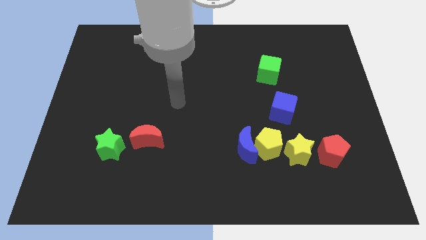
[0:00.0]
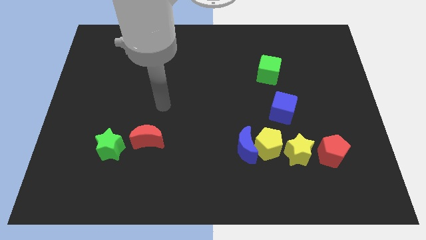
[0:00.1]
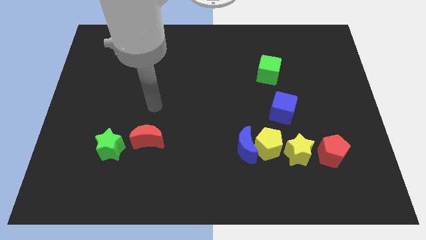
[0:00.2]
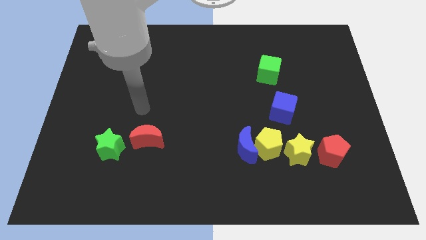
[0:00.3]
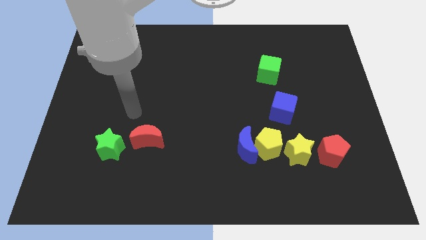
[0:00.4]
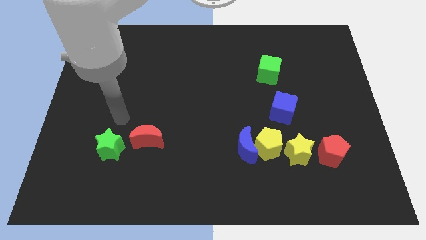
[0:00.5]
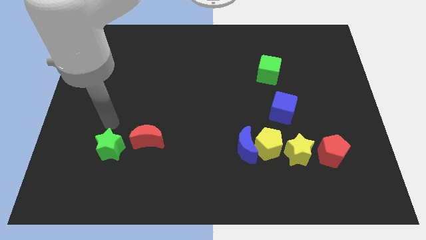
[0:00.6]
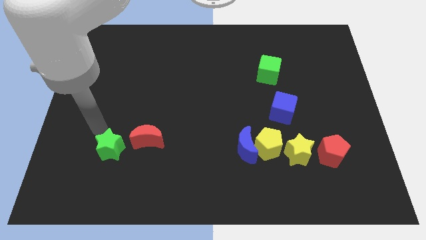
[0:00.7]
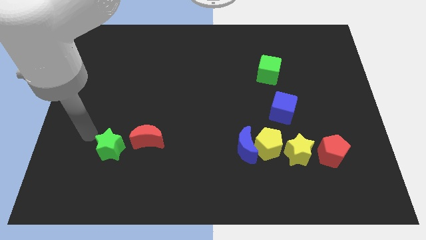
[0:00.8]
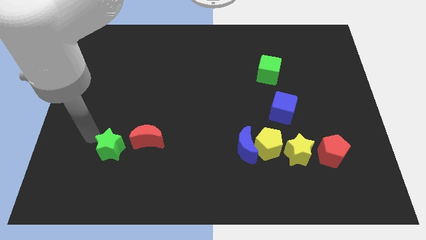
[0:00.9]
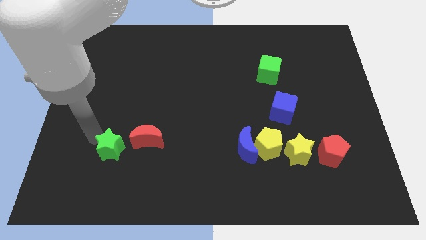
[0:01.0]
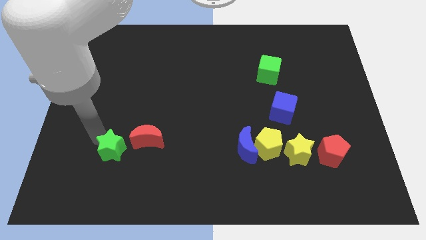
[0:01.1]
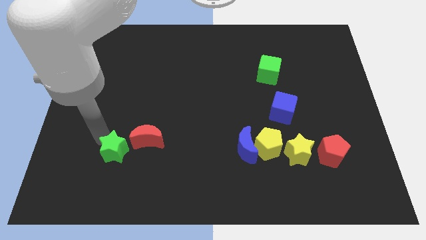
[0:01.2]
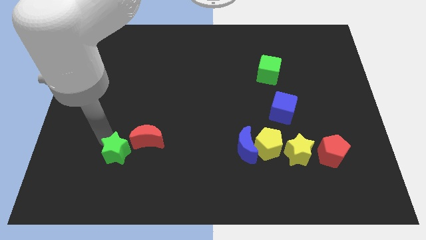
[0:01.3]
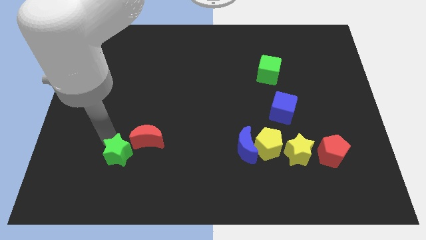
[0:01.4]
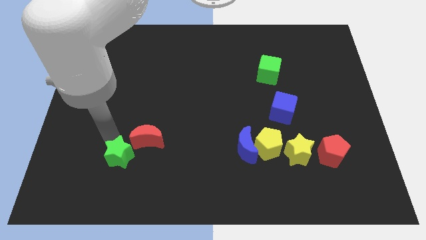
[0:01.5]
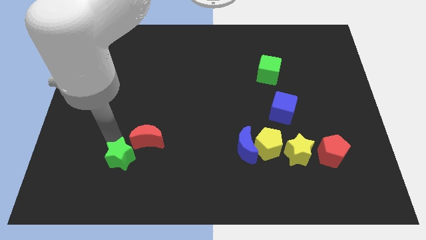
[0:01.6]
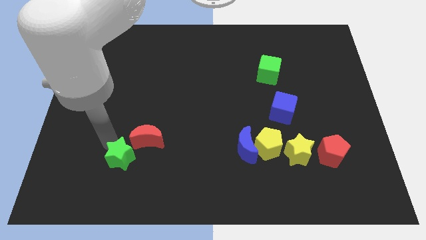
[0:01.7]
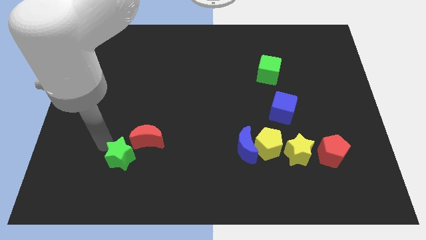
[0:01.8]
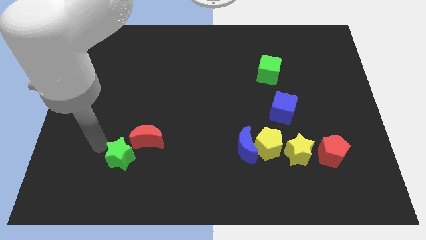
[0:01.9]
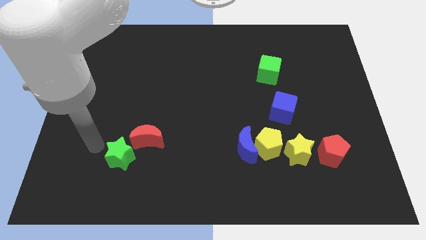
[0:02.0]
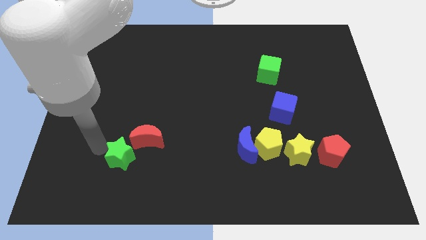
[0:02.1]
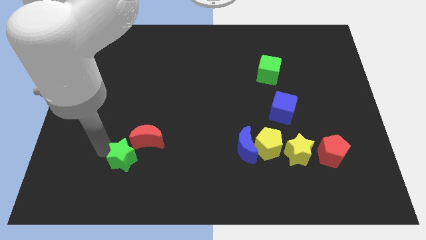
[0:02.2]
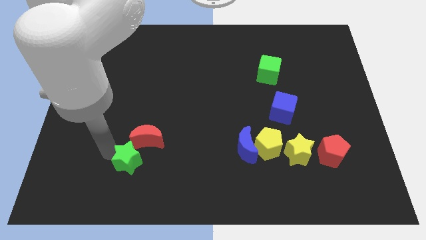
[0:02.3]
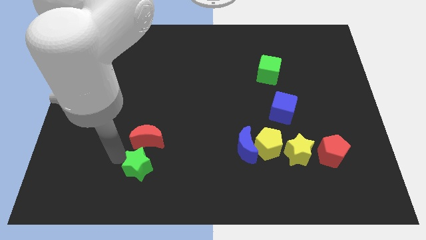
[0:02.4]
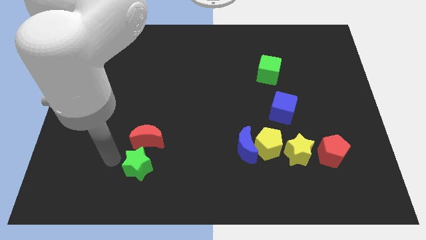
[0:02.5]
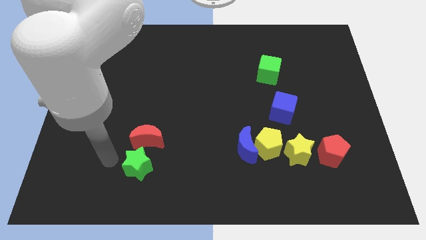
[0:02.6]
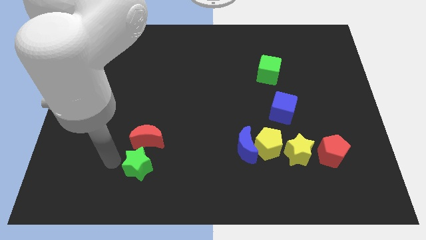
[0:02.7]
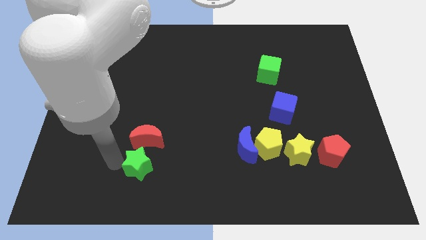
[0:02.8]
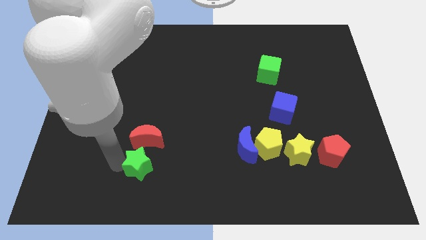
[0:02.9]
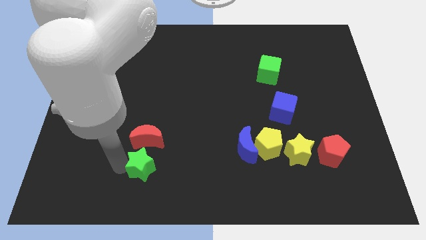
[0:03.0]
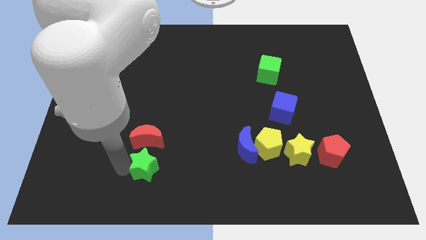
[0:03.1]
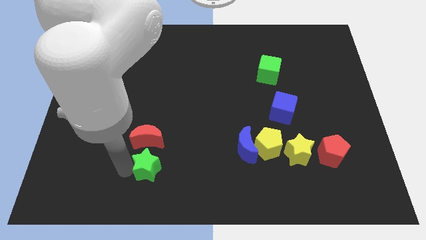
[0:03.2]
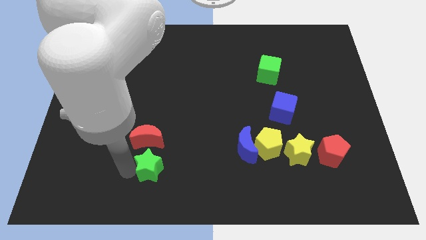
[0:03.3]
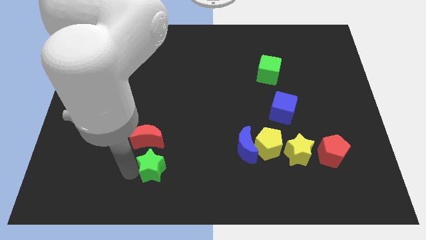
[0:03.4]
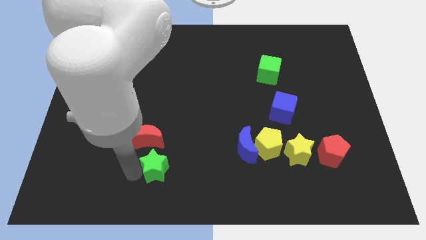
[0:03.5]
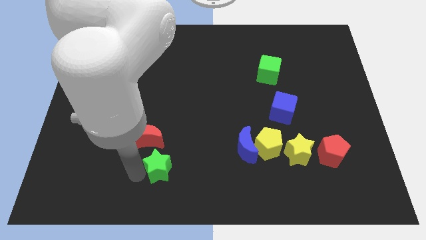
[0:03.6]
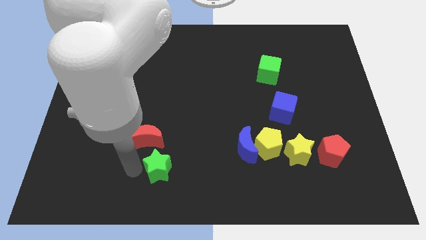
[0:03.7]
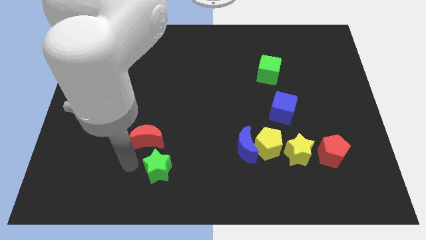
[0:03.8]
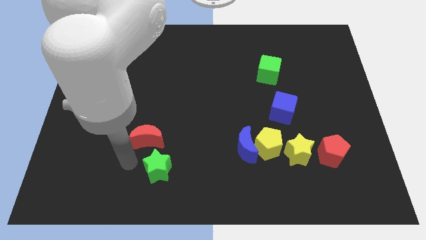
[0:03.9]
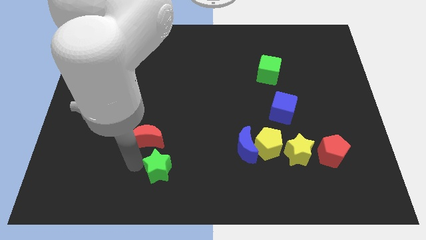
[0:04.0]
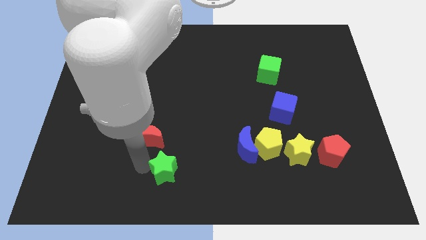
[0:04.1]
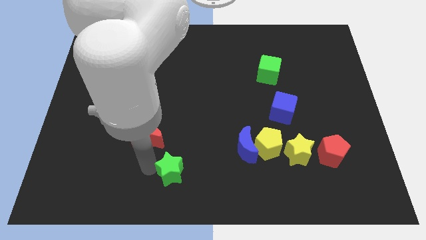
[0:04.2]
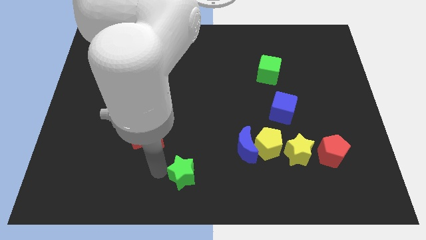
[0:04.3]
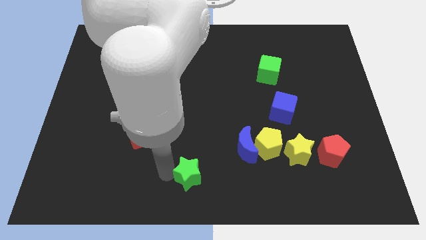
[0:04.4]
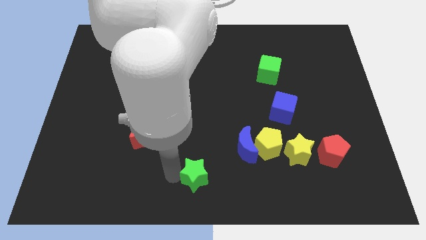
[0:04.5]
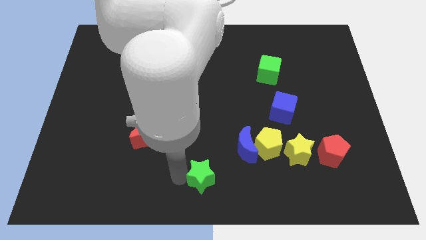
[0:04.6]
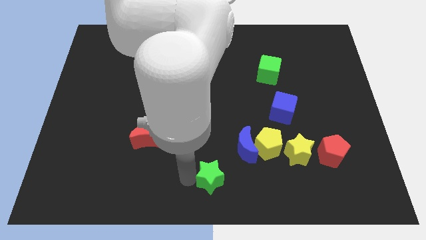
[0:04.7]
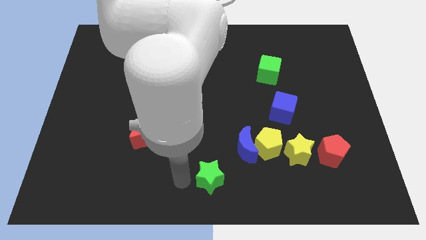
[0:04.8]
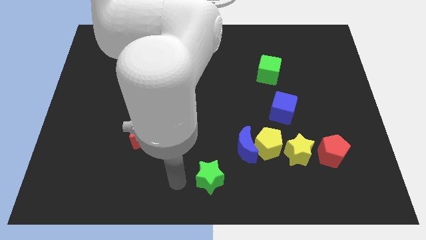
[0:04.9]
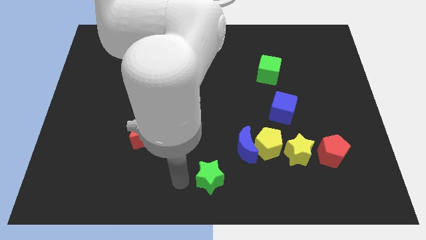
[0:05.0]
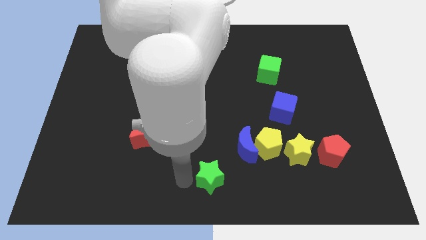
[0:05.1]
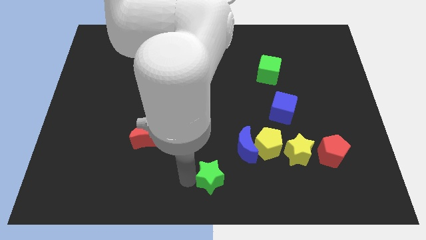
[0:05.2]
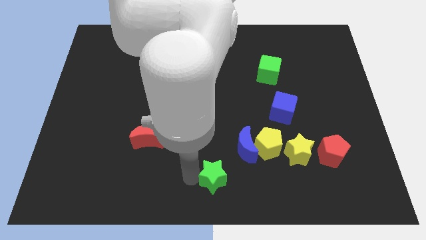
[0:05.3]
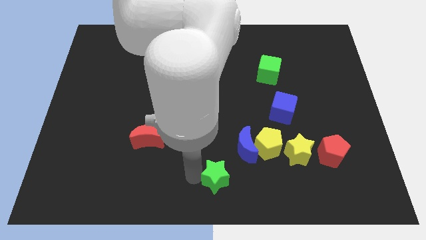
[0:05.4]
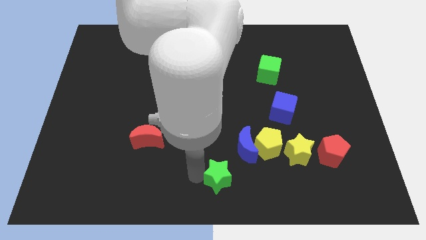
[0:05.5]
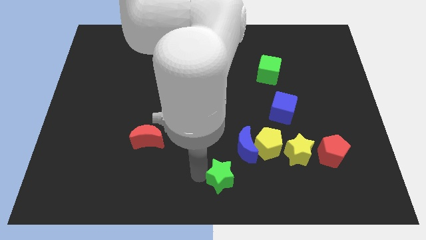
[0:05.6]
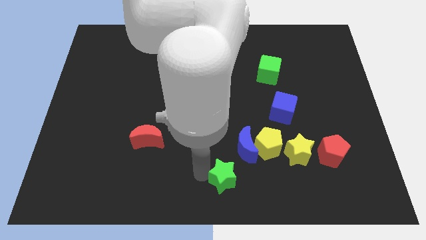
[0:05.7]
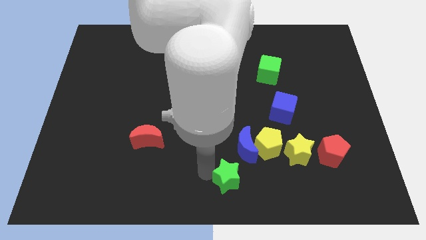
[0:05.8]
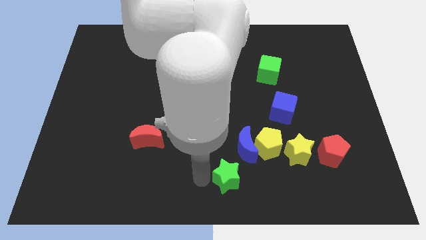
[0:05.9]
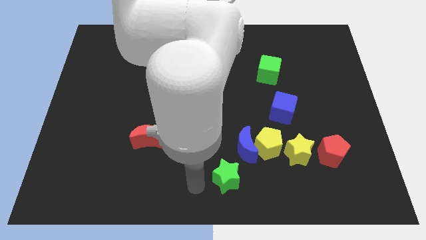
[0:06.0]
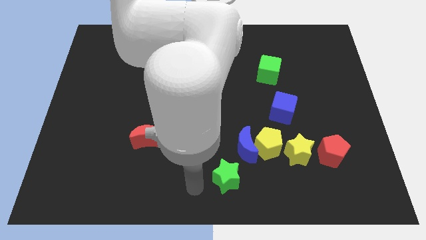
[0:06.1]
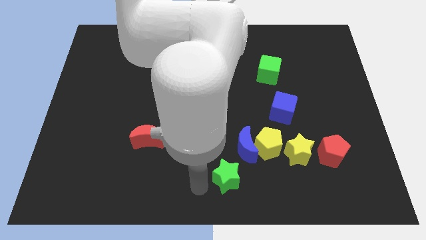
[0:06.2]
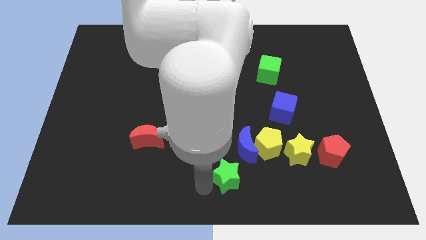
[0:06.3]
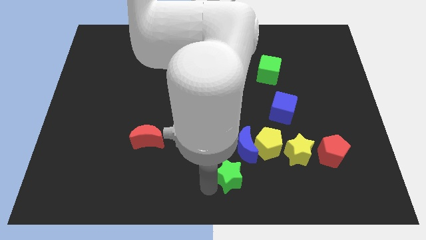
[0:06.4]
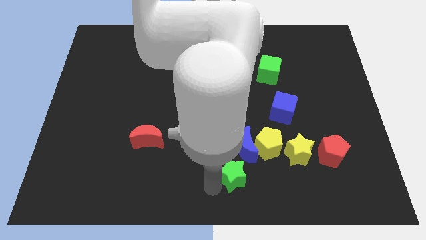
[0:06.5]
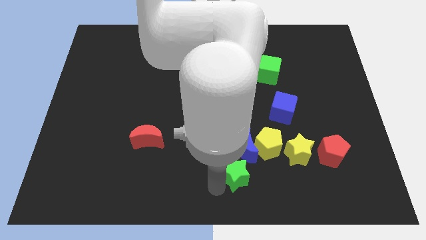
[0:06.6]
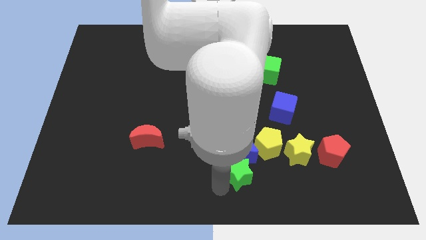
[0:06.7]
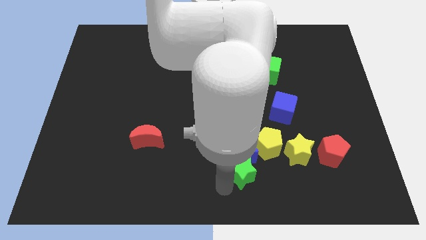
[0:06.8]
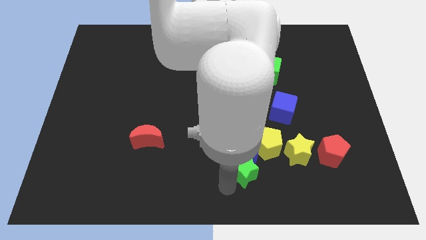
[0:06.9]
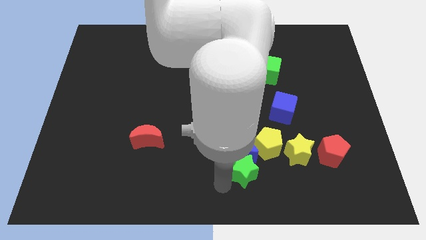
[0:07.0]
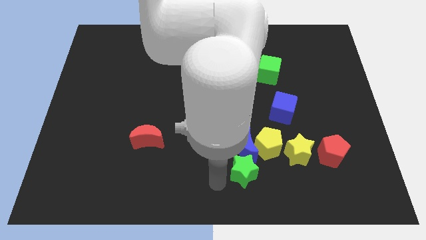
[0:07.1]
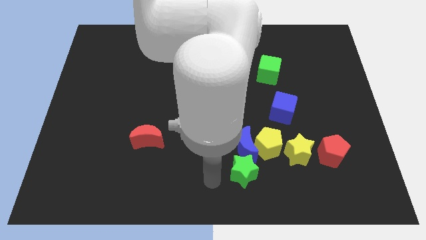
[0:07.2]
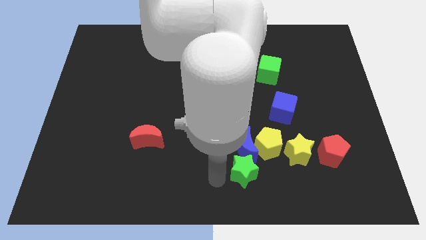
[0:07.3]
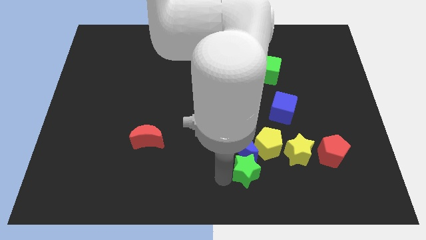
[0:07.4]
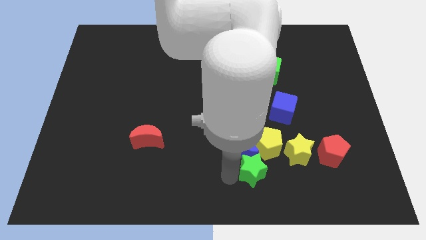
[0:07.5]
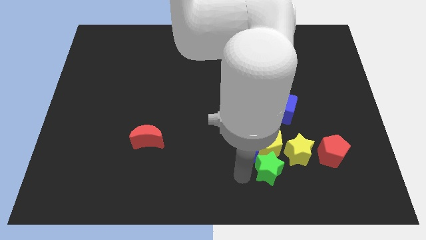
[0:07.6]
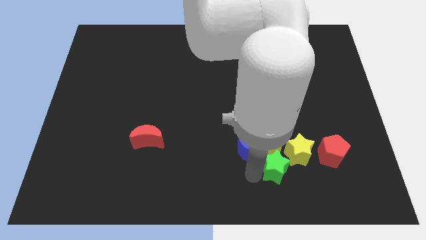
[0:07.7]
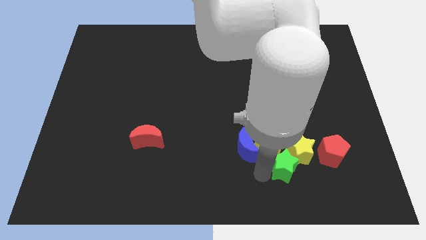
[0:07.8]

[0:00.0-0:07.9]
slide the green star next to the yellow star
